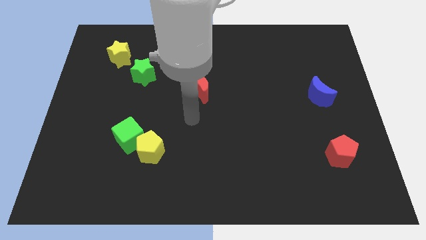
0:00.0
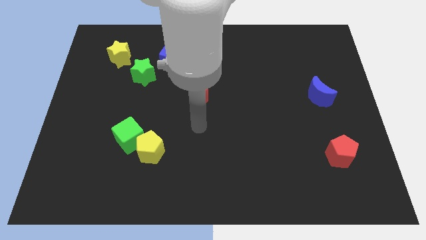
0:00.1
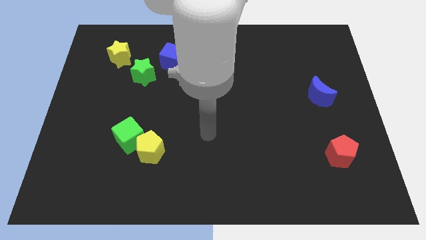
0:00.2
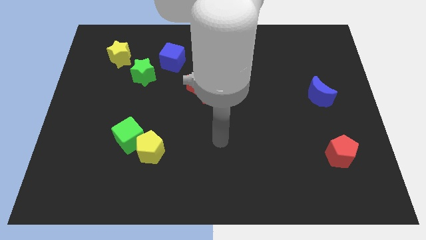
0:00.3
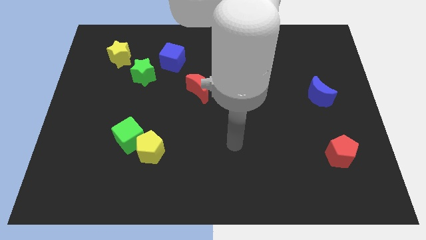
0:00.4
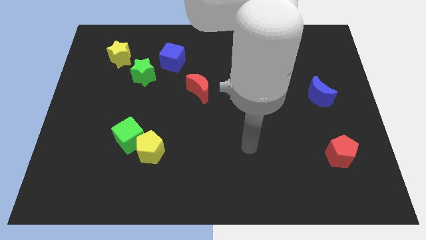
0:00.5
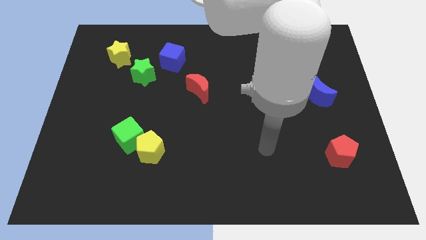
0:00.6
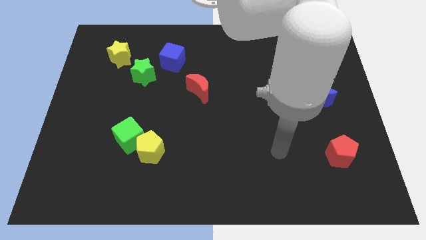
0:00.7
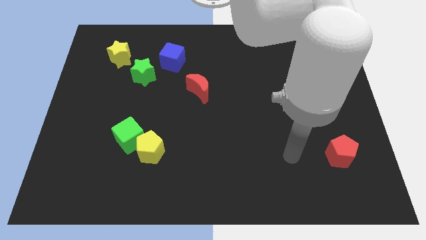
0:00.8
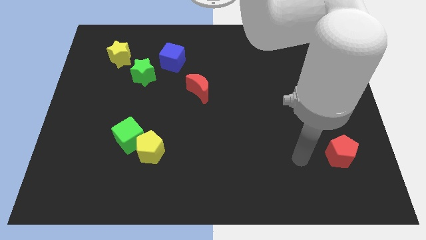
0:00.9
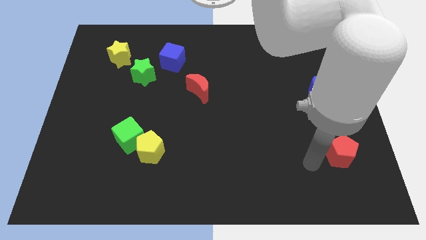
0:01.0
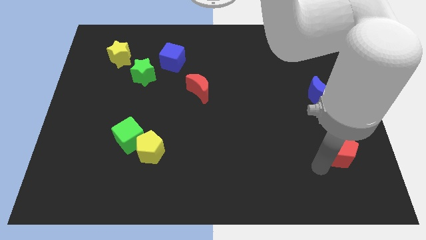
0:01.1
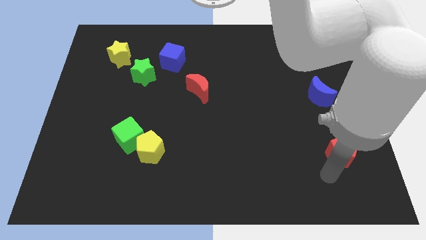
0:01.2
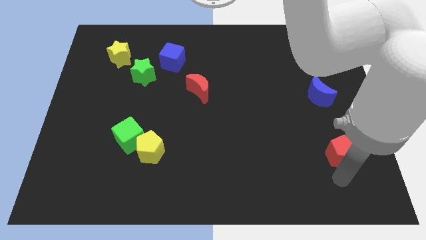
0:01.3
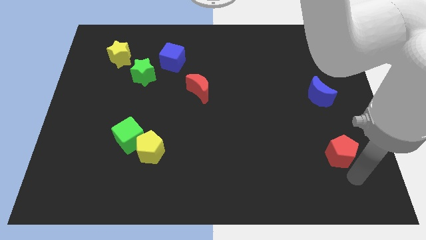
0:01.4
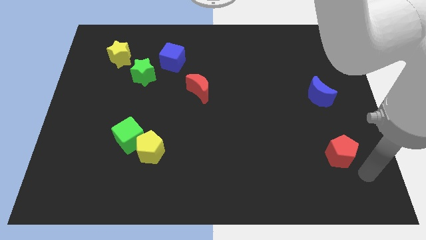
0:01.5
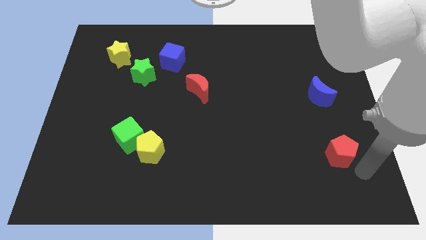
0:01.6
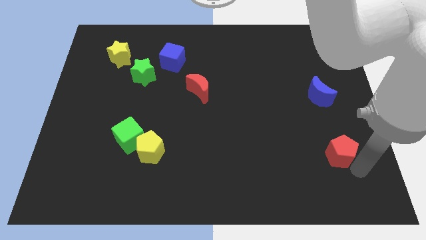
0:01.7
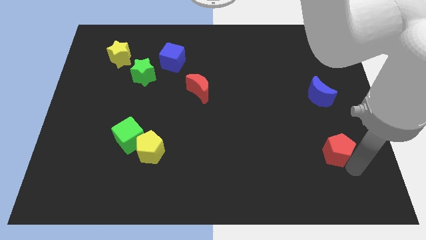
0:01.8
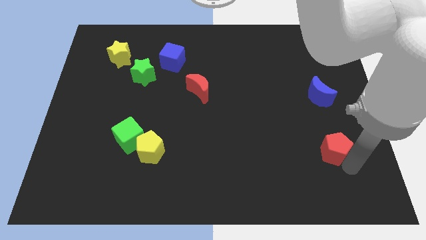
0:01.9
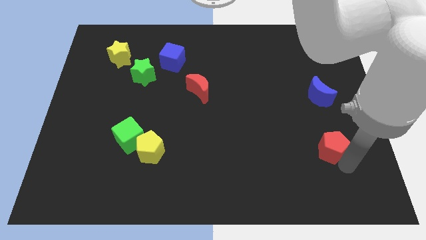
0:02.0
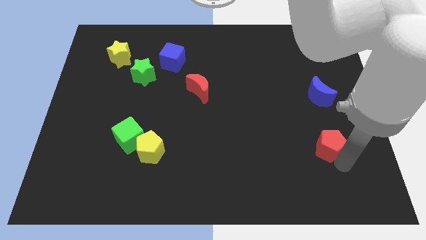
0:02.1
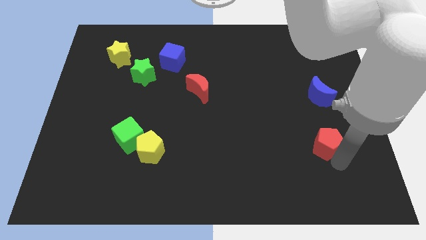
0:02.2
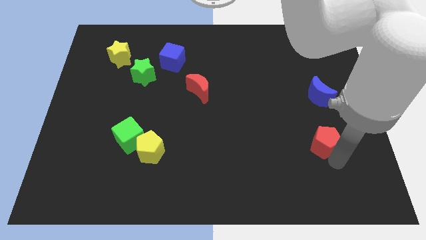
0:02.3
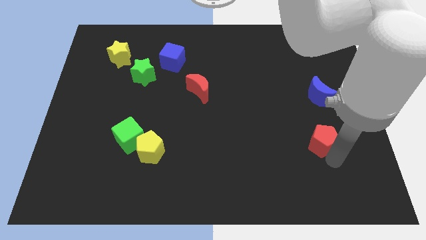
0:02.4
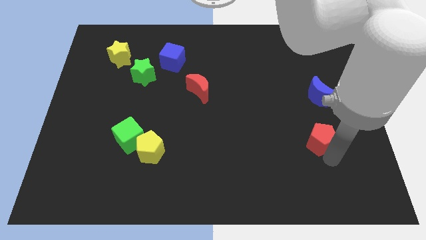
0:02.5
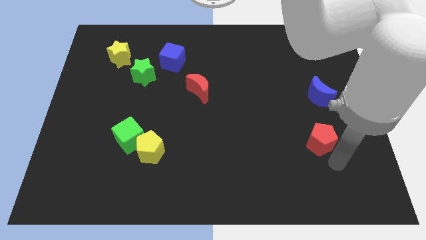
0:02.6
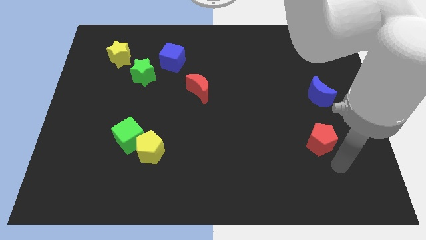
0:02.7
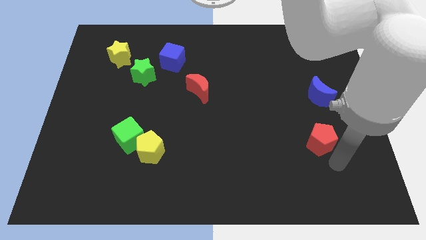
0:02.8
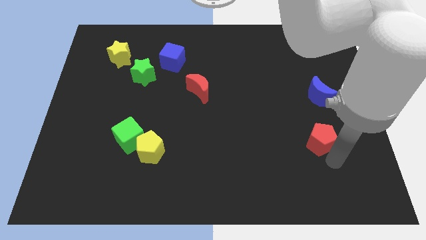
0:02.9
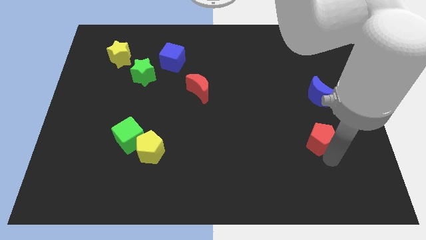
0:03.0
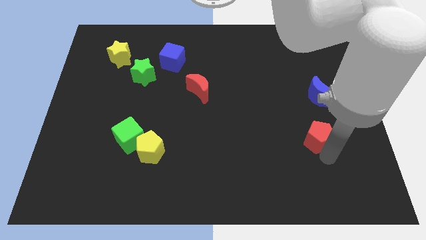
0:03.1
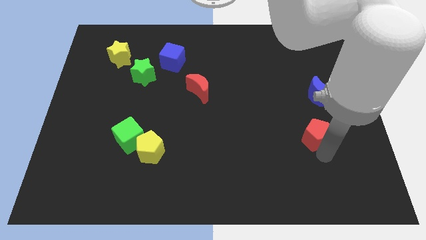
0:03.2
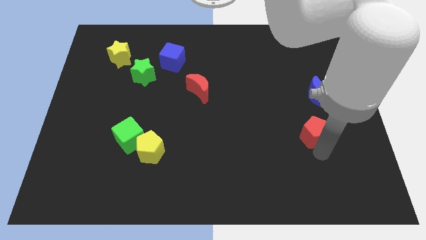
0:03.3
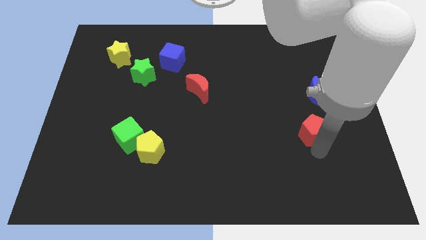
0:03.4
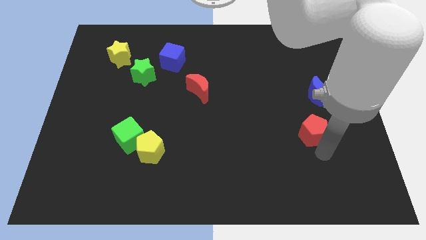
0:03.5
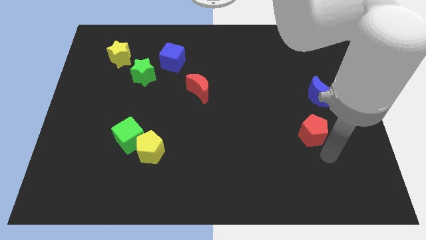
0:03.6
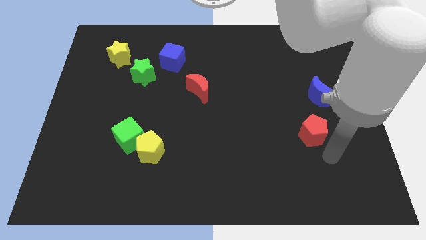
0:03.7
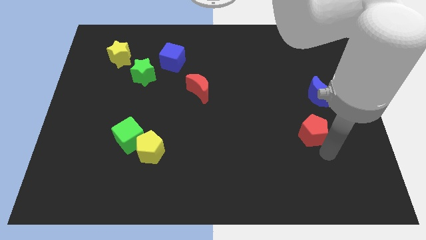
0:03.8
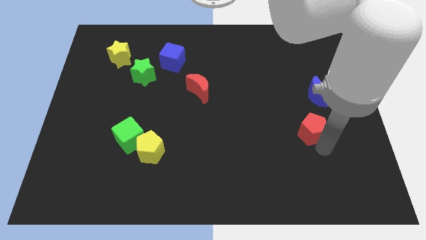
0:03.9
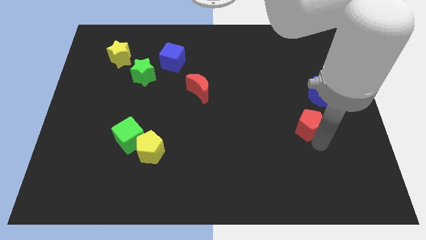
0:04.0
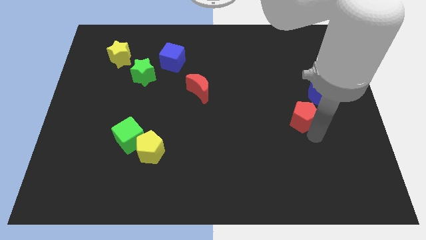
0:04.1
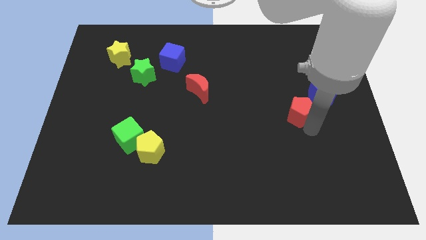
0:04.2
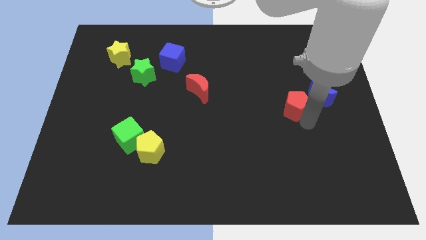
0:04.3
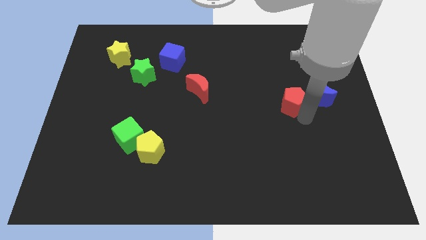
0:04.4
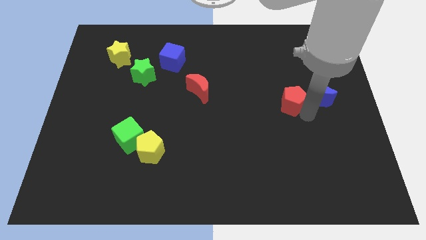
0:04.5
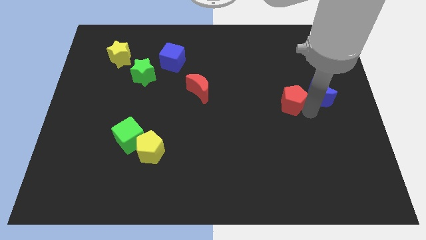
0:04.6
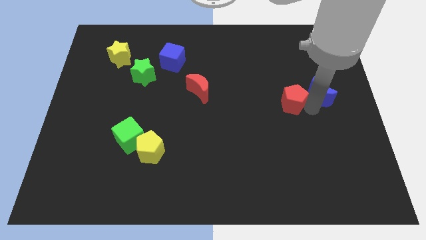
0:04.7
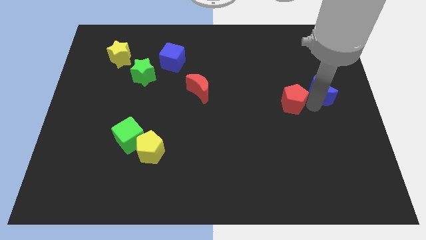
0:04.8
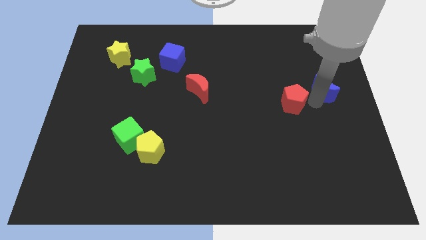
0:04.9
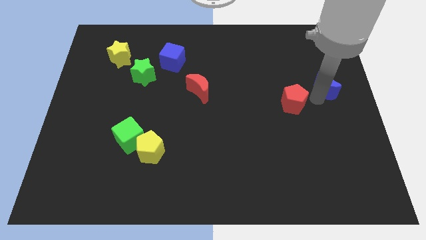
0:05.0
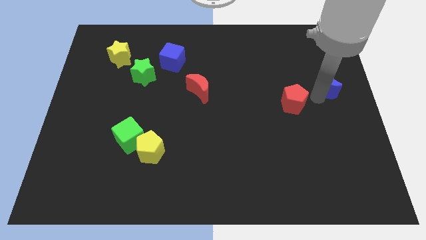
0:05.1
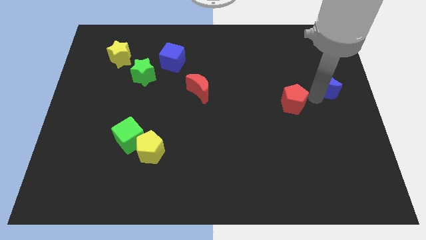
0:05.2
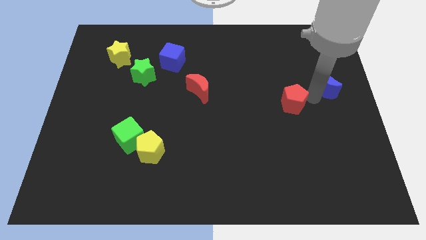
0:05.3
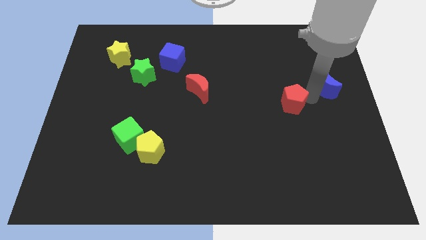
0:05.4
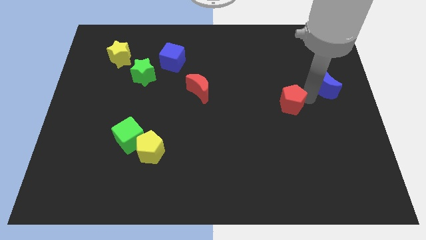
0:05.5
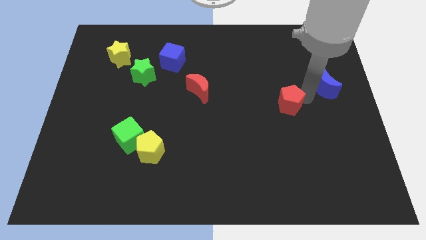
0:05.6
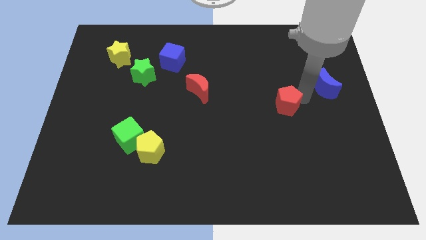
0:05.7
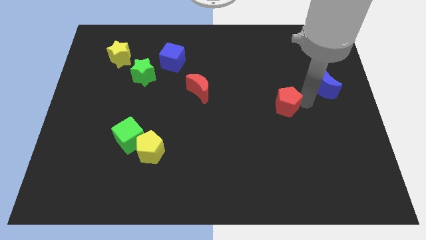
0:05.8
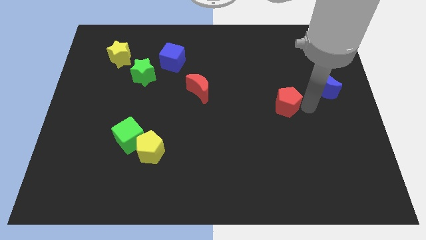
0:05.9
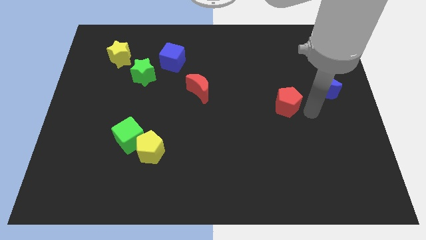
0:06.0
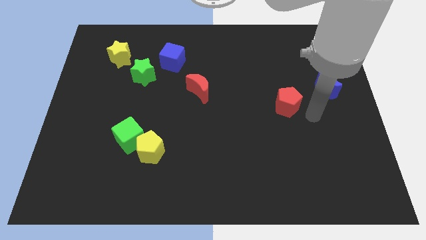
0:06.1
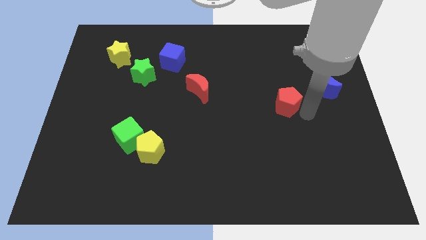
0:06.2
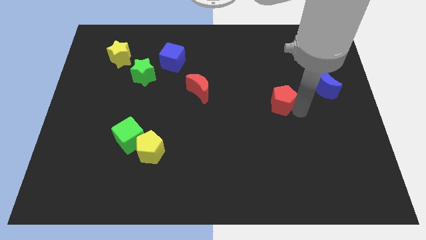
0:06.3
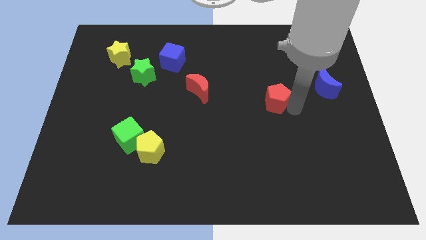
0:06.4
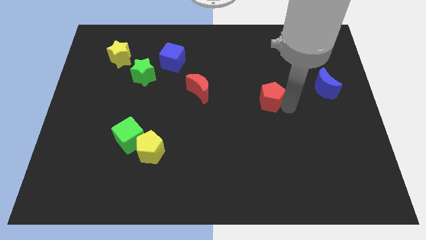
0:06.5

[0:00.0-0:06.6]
move the red pentagon up and left

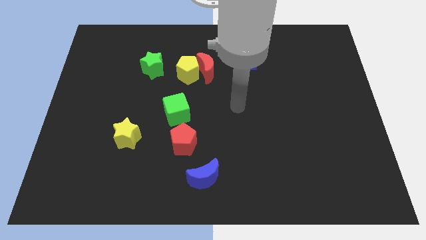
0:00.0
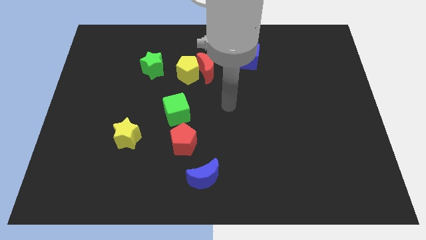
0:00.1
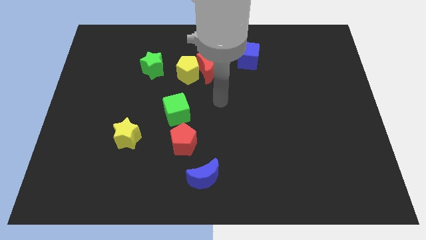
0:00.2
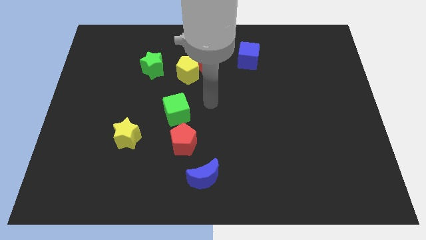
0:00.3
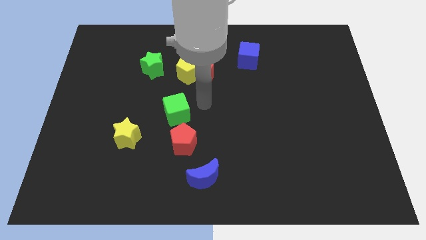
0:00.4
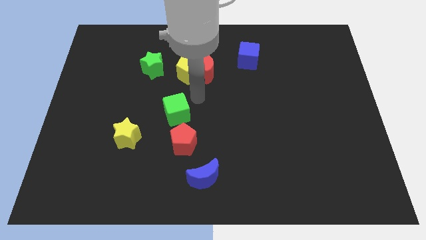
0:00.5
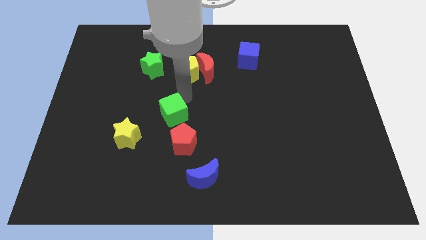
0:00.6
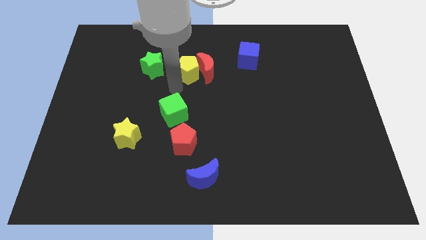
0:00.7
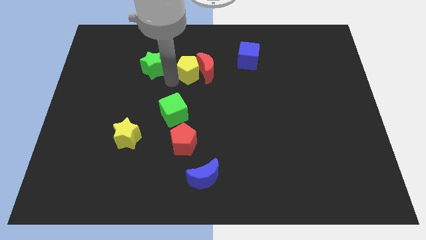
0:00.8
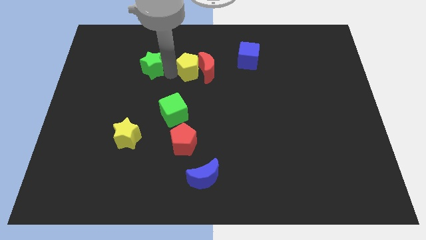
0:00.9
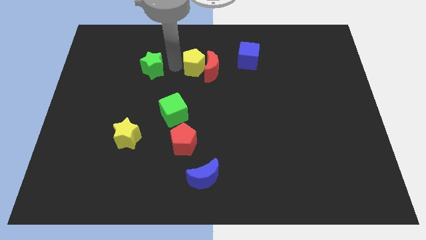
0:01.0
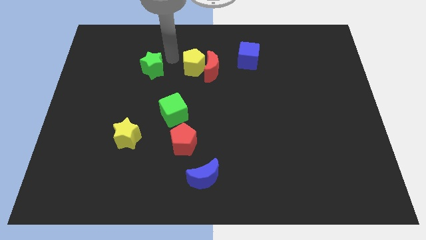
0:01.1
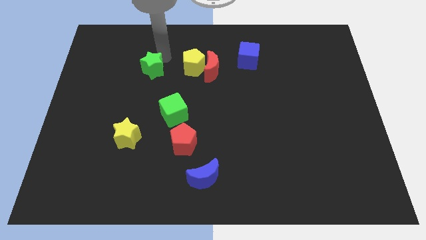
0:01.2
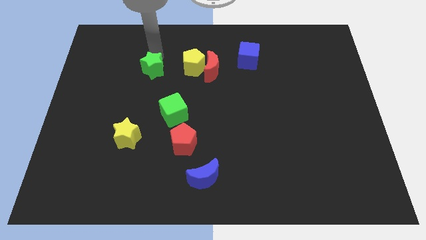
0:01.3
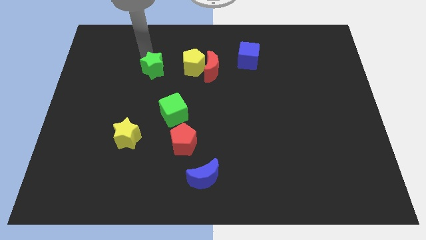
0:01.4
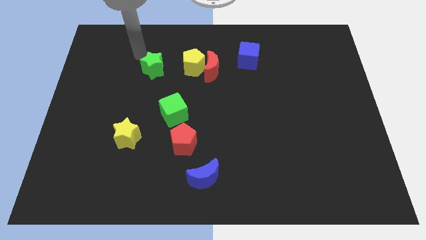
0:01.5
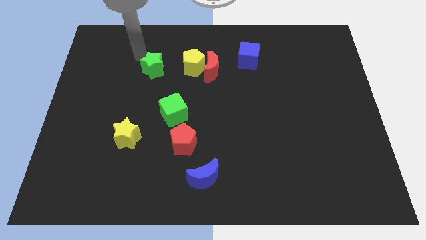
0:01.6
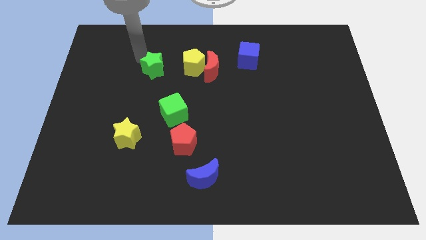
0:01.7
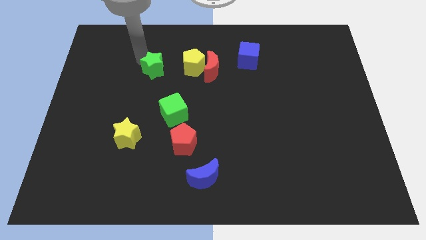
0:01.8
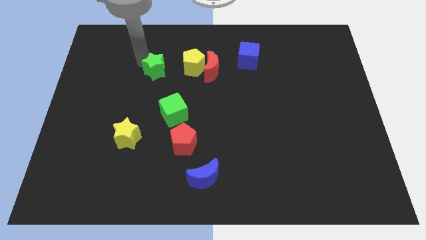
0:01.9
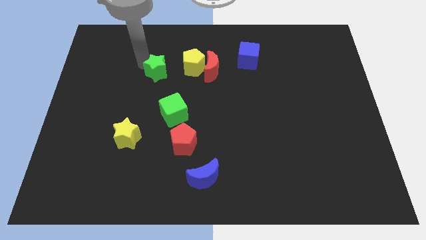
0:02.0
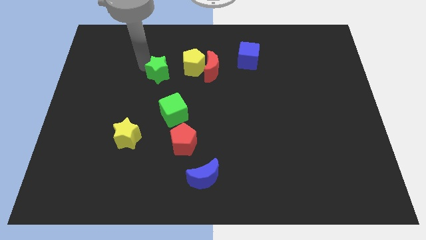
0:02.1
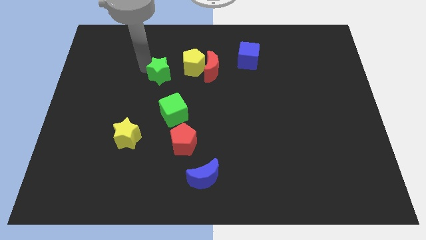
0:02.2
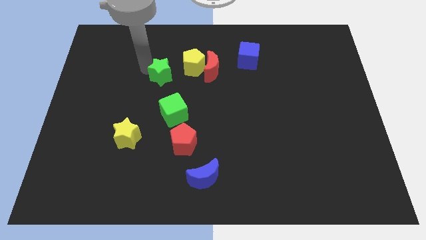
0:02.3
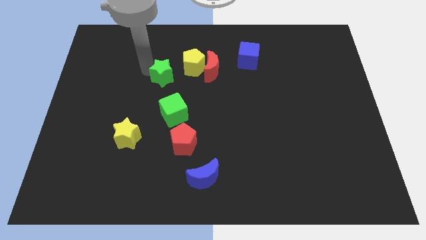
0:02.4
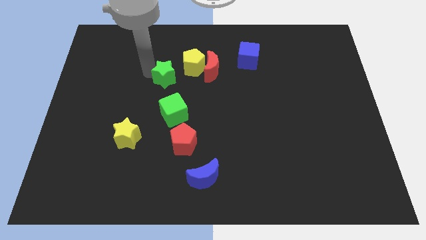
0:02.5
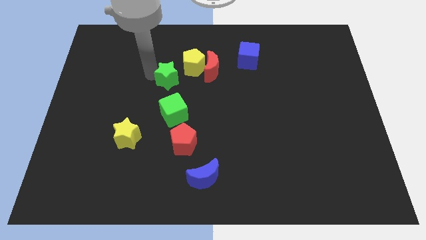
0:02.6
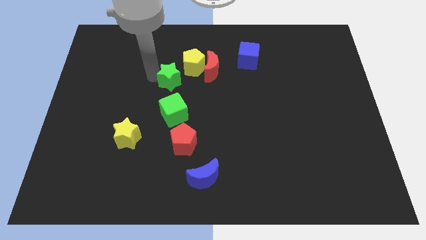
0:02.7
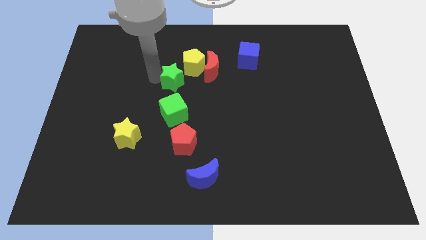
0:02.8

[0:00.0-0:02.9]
slide the green star a little bit down and to the right diagonally
